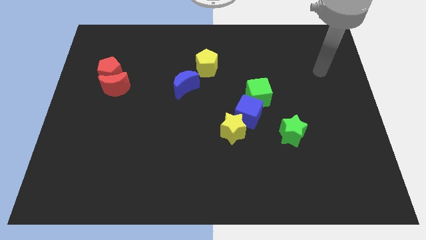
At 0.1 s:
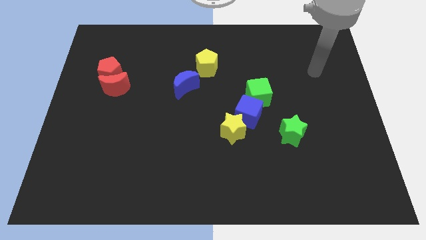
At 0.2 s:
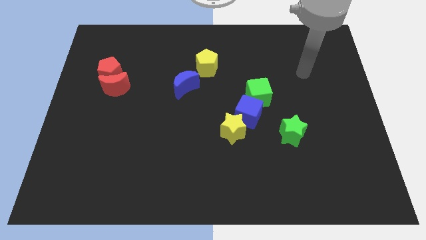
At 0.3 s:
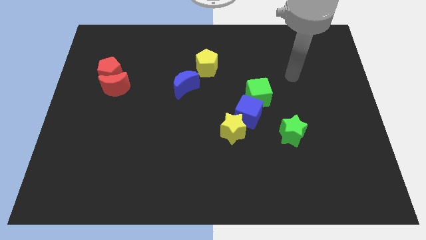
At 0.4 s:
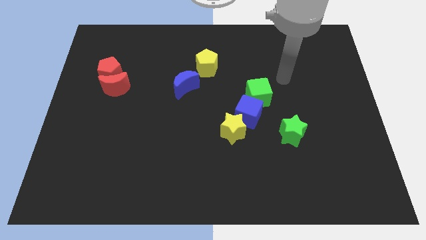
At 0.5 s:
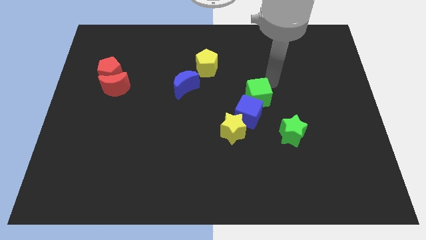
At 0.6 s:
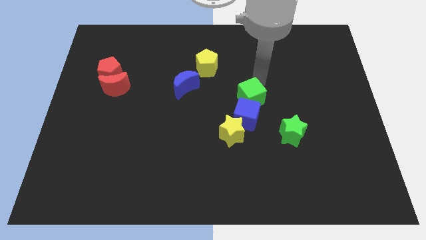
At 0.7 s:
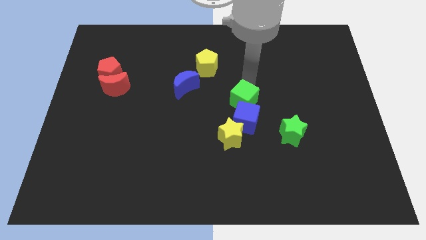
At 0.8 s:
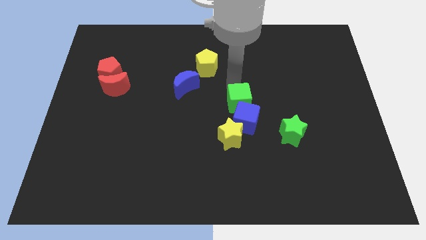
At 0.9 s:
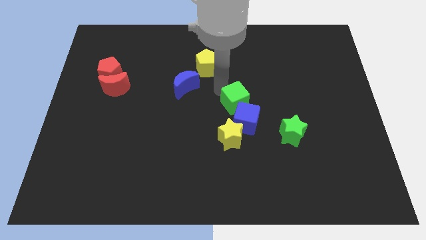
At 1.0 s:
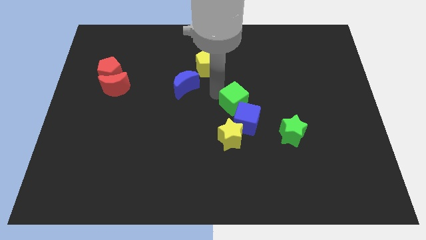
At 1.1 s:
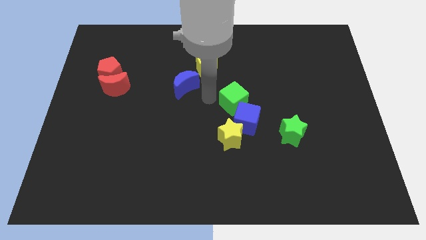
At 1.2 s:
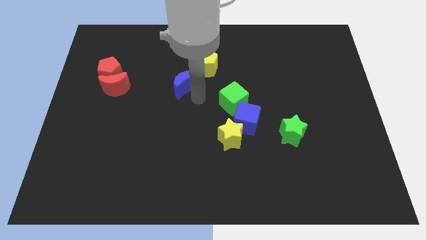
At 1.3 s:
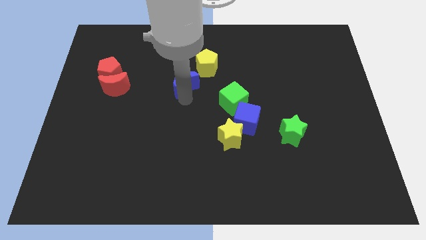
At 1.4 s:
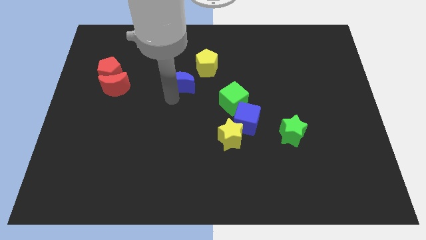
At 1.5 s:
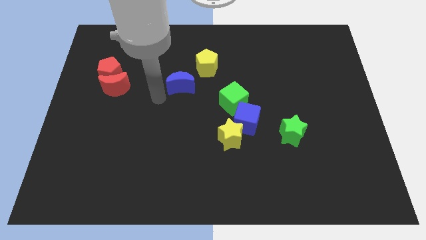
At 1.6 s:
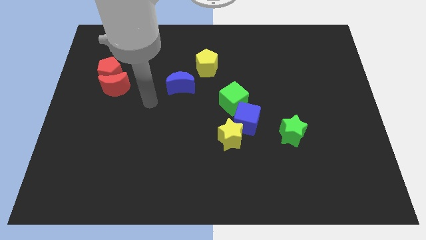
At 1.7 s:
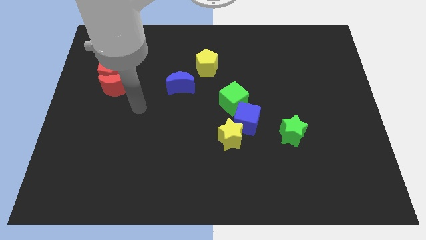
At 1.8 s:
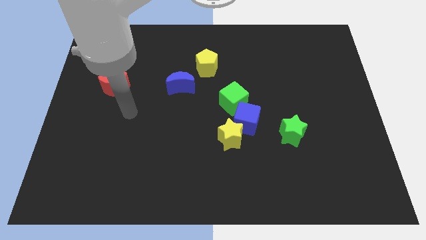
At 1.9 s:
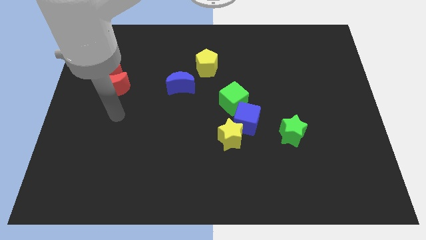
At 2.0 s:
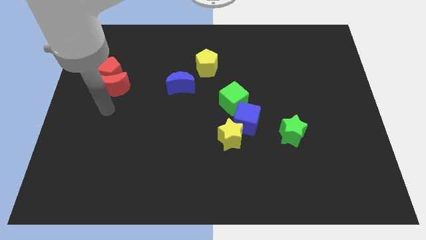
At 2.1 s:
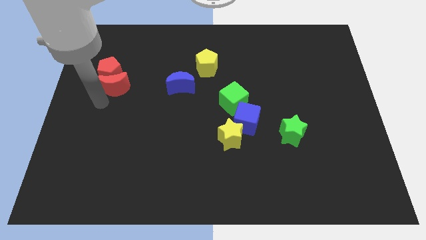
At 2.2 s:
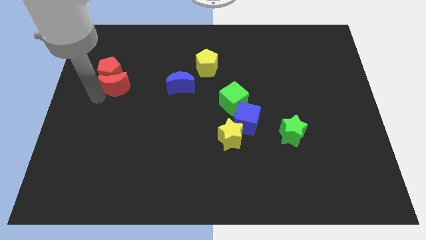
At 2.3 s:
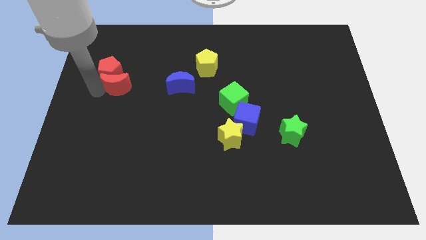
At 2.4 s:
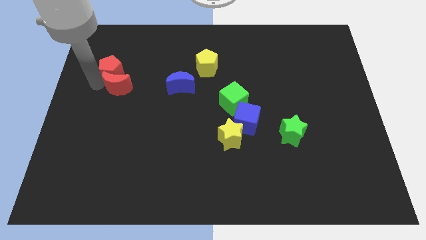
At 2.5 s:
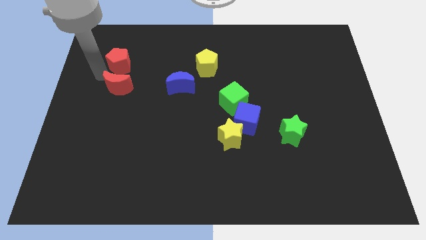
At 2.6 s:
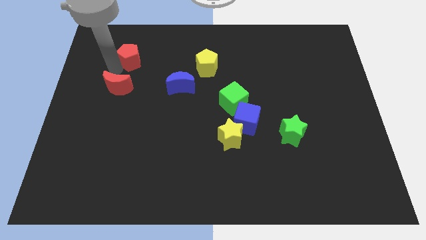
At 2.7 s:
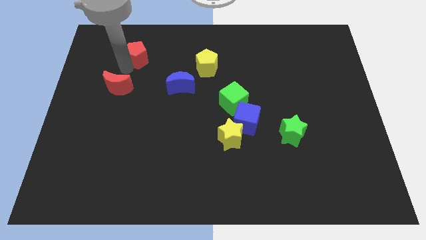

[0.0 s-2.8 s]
move the red moon away from the red pentagon

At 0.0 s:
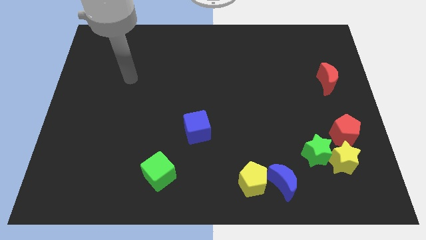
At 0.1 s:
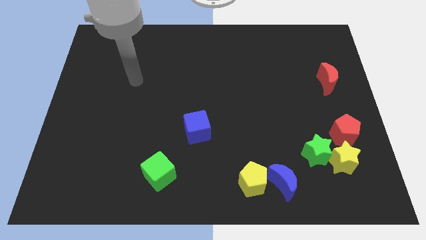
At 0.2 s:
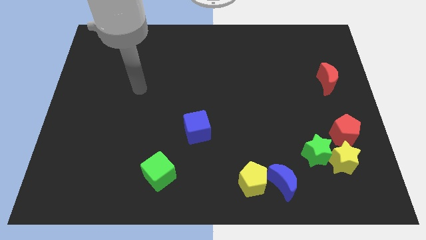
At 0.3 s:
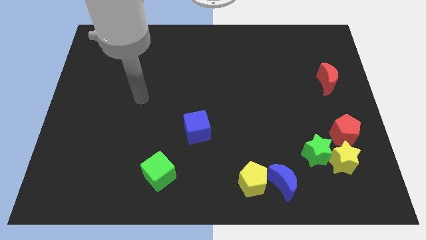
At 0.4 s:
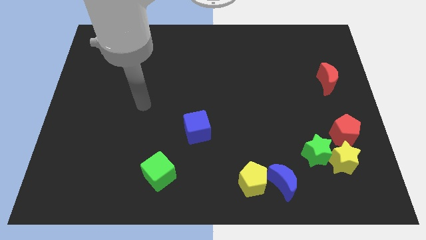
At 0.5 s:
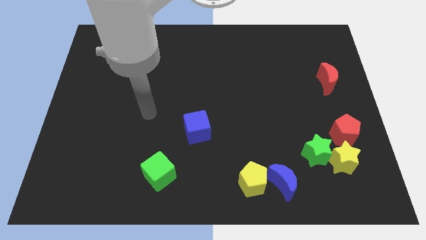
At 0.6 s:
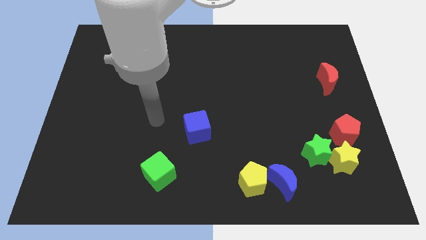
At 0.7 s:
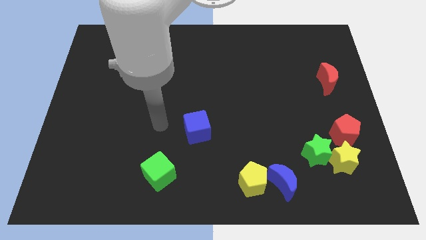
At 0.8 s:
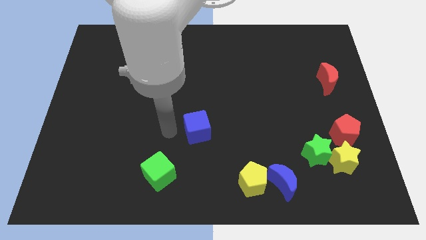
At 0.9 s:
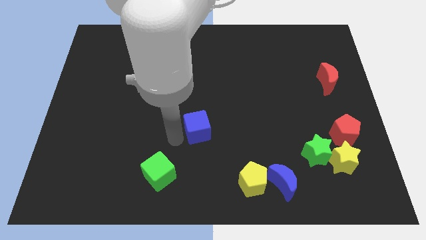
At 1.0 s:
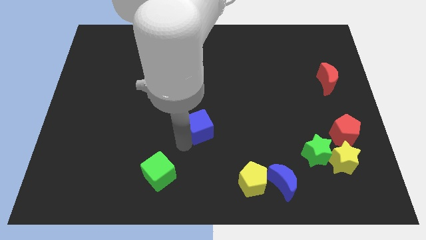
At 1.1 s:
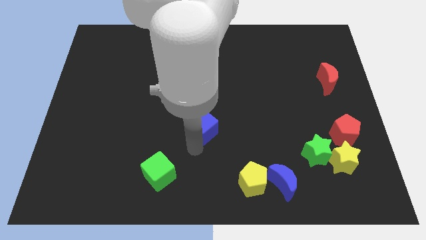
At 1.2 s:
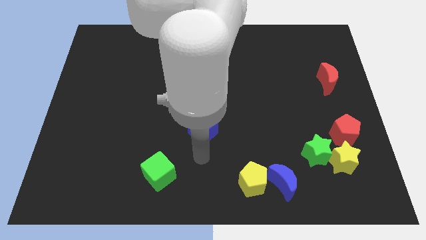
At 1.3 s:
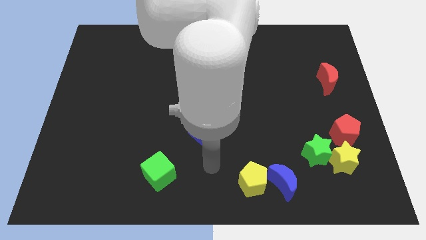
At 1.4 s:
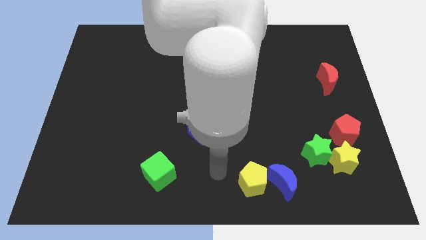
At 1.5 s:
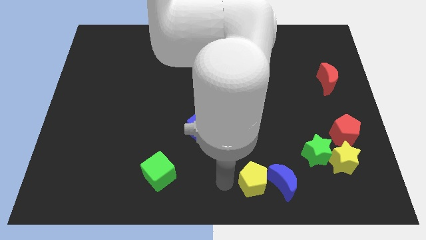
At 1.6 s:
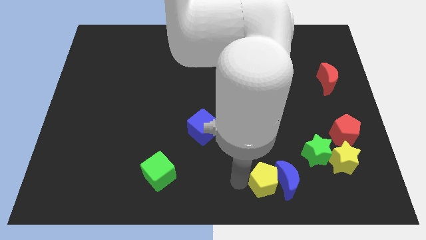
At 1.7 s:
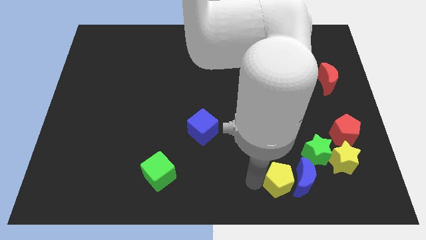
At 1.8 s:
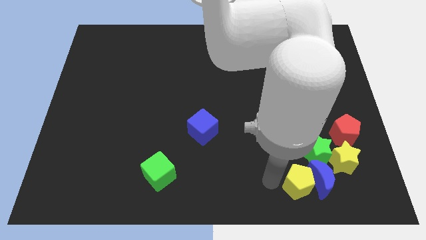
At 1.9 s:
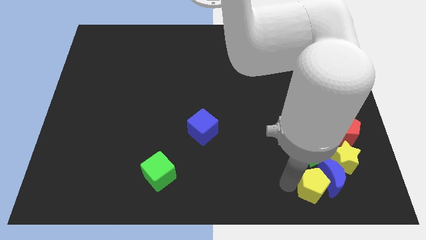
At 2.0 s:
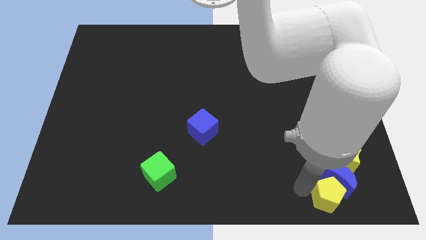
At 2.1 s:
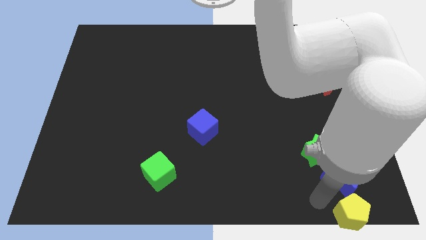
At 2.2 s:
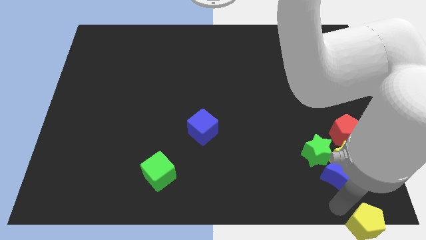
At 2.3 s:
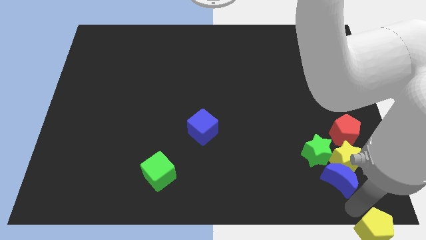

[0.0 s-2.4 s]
pull the blue moon apart from the yellow pentagon

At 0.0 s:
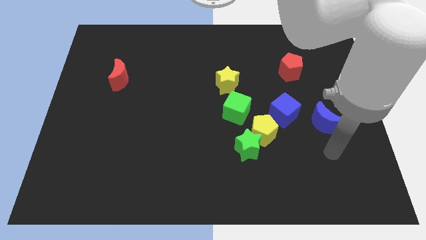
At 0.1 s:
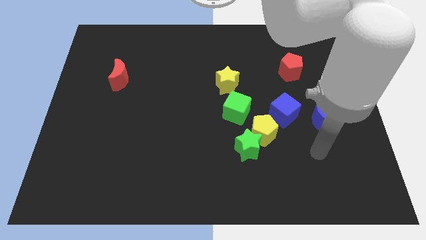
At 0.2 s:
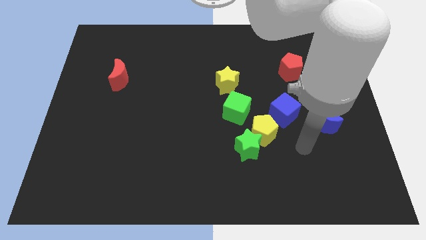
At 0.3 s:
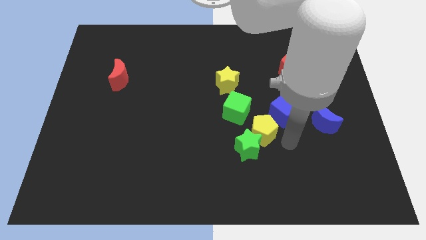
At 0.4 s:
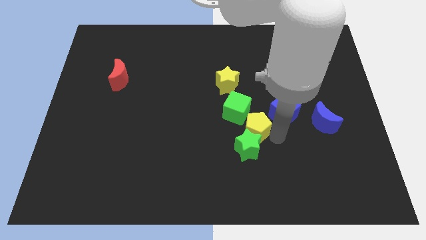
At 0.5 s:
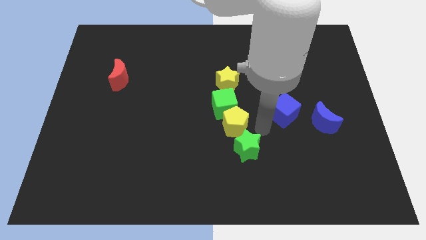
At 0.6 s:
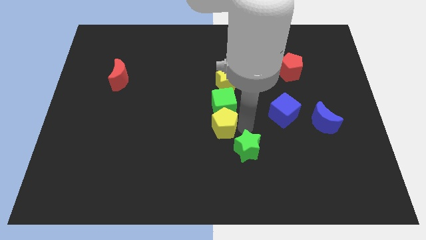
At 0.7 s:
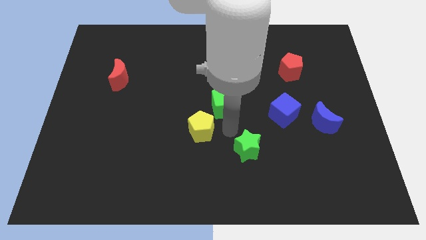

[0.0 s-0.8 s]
separate the green star from the yellow pentagon

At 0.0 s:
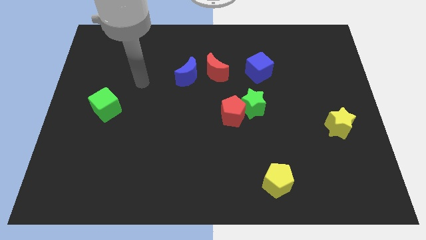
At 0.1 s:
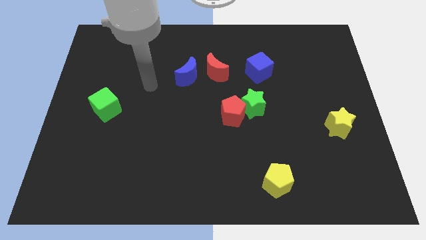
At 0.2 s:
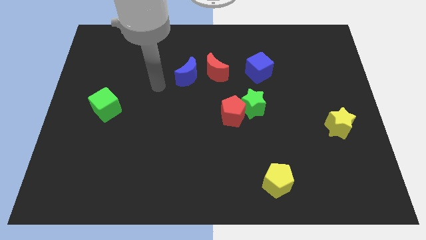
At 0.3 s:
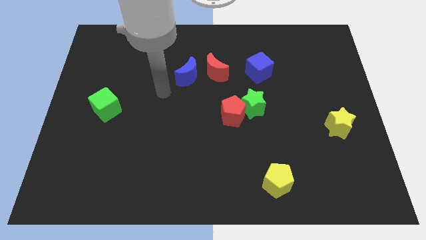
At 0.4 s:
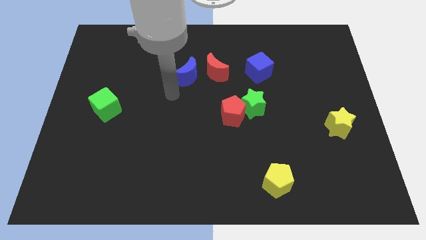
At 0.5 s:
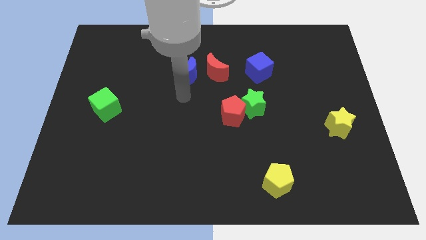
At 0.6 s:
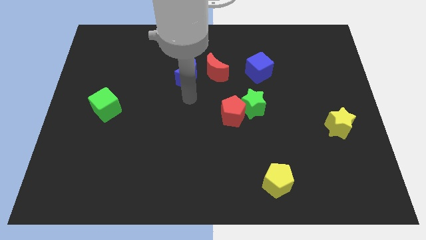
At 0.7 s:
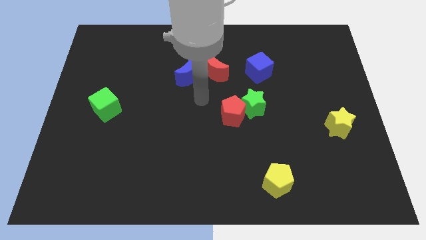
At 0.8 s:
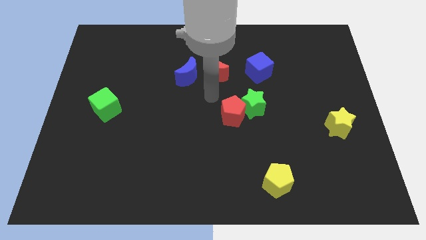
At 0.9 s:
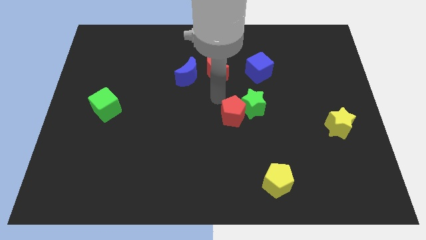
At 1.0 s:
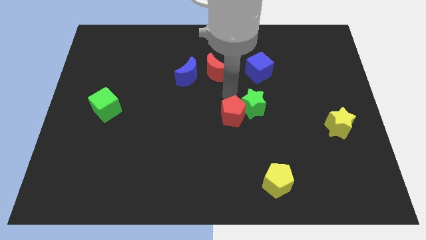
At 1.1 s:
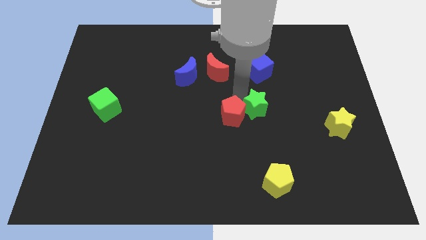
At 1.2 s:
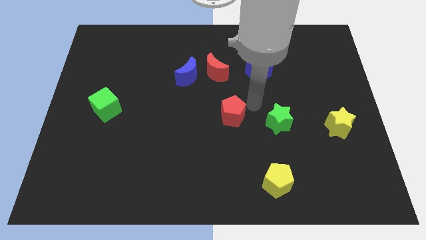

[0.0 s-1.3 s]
move the red pentagon away from the green star

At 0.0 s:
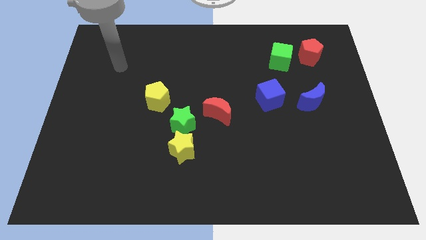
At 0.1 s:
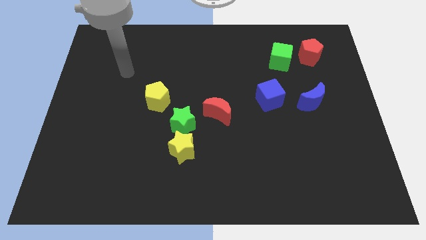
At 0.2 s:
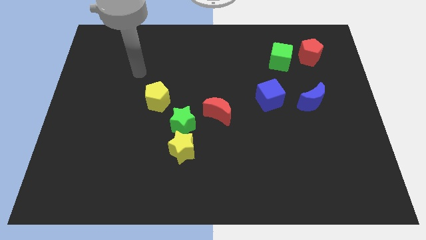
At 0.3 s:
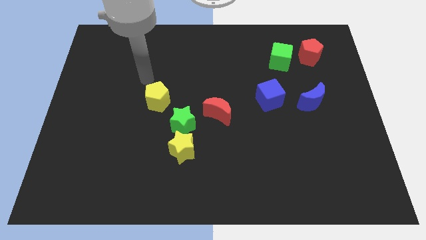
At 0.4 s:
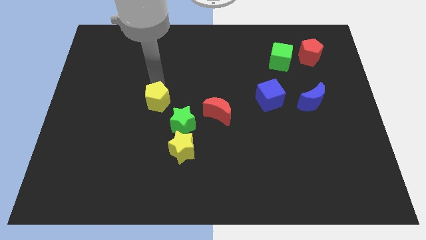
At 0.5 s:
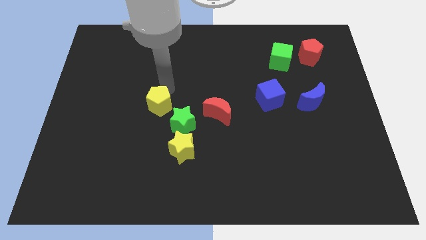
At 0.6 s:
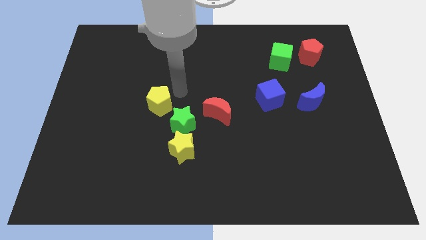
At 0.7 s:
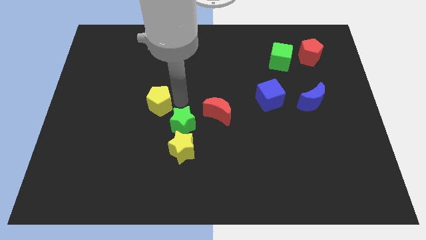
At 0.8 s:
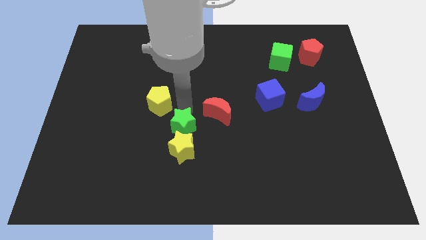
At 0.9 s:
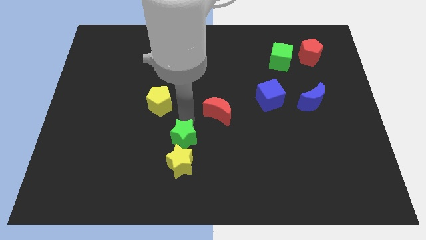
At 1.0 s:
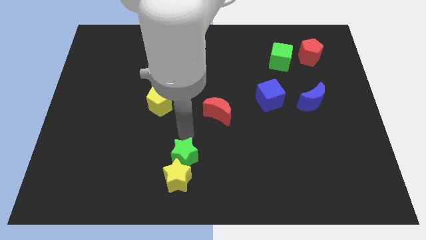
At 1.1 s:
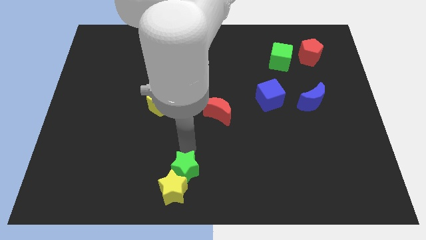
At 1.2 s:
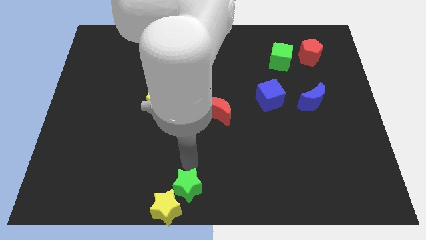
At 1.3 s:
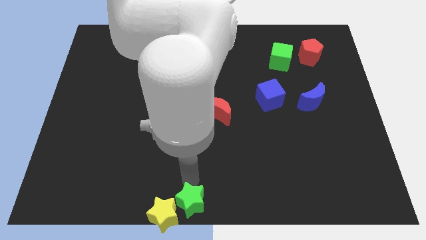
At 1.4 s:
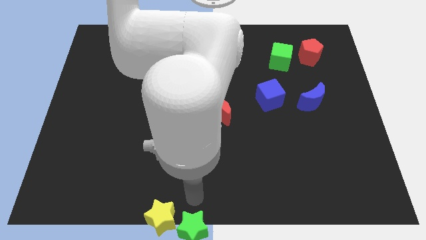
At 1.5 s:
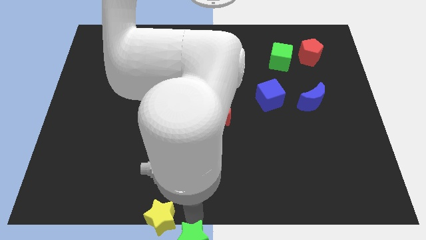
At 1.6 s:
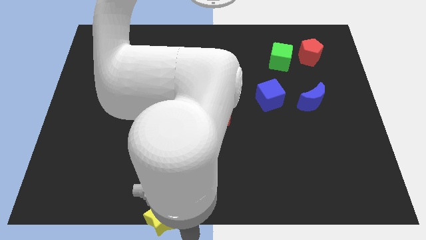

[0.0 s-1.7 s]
separate the yellow star from the green star

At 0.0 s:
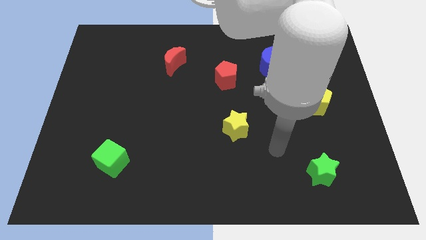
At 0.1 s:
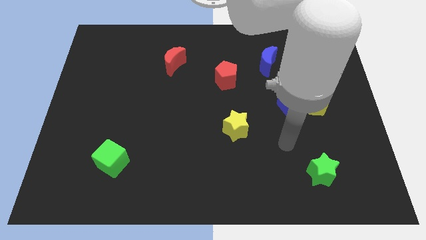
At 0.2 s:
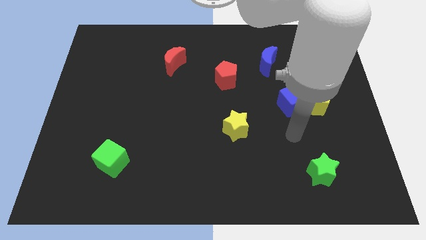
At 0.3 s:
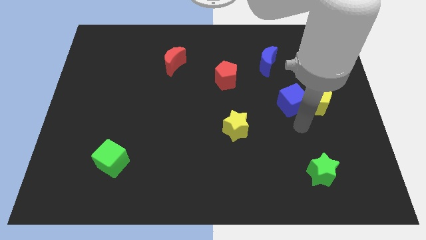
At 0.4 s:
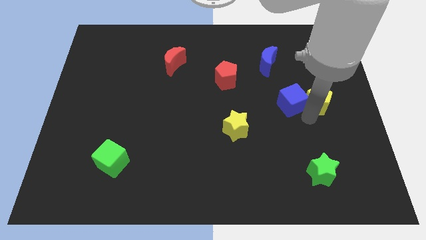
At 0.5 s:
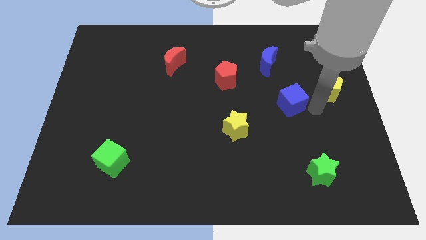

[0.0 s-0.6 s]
move the blue cube away from the yellow pentagon
